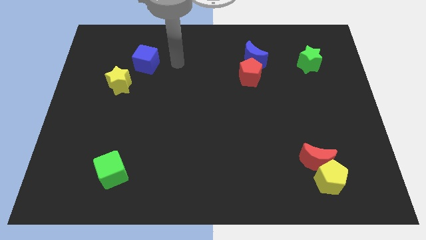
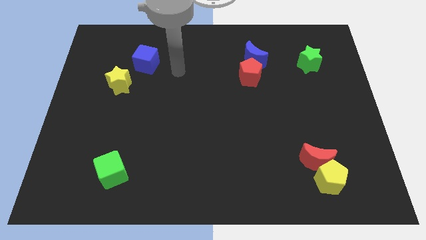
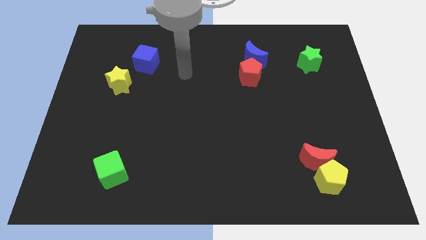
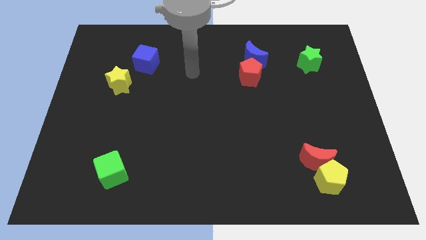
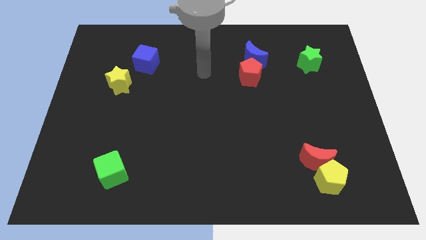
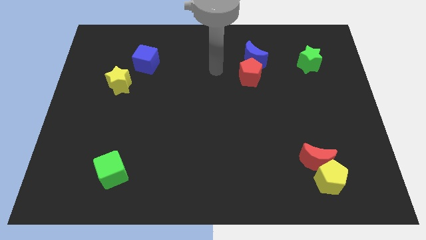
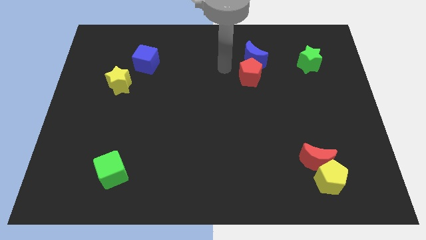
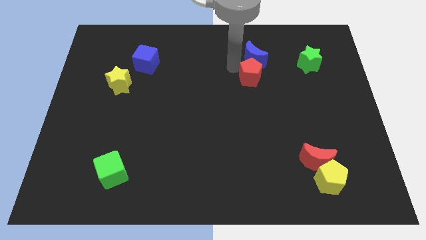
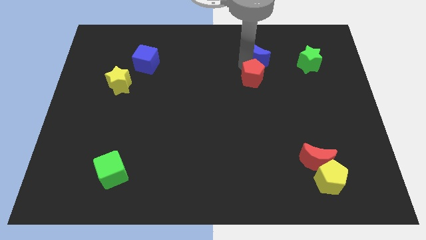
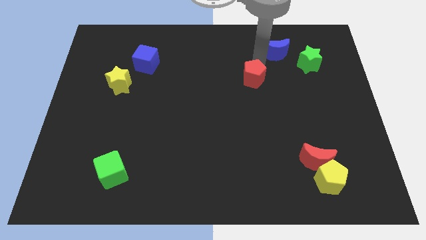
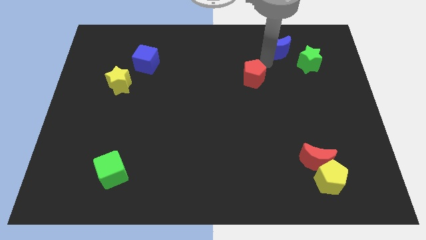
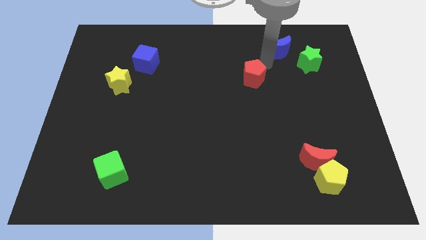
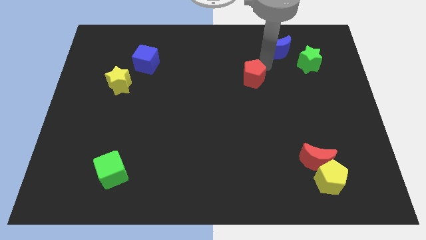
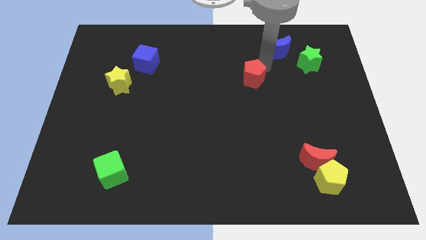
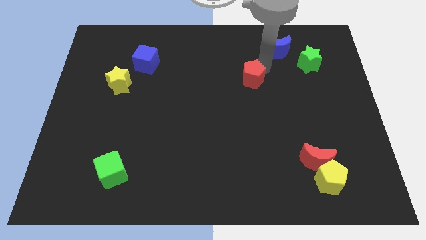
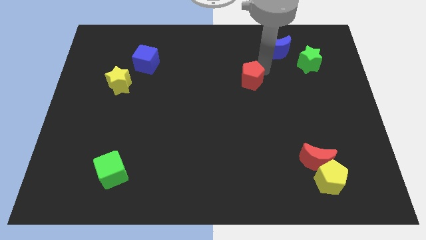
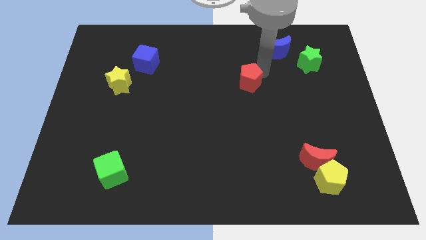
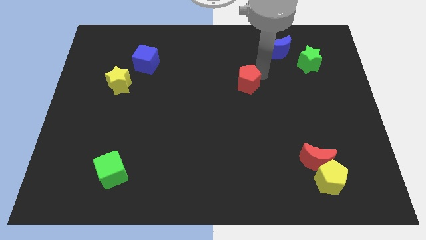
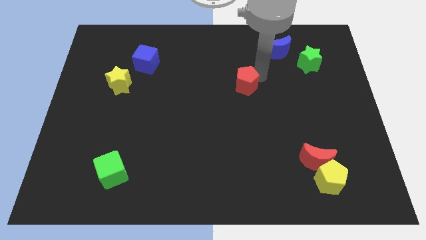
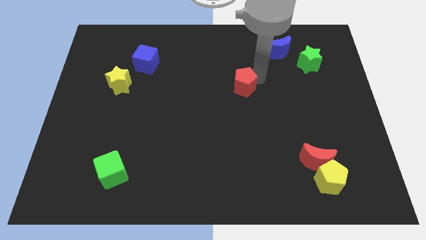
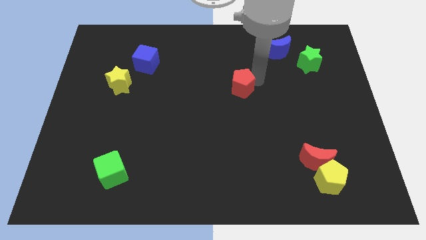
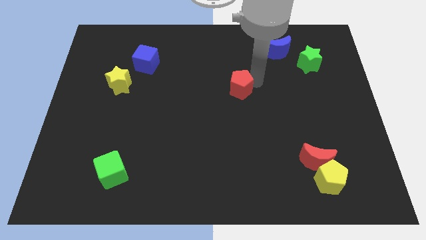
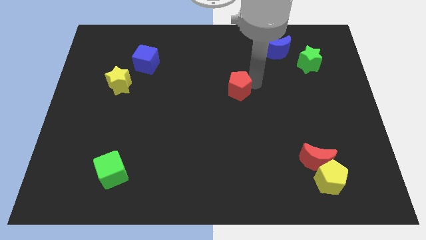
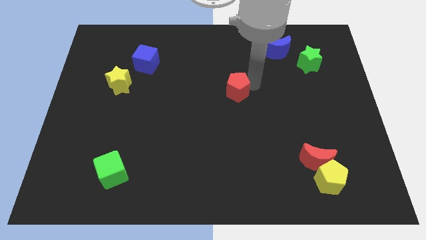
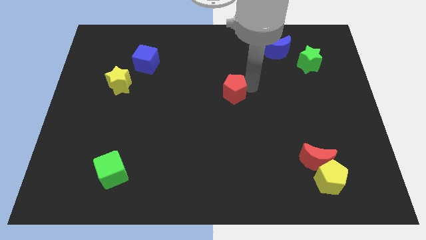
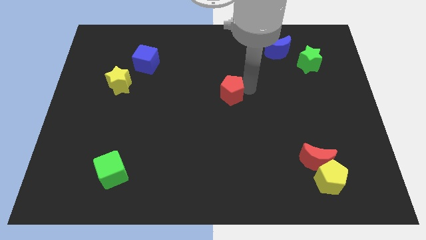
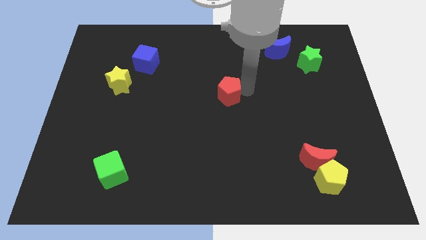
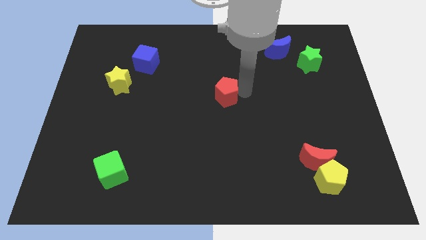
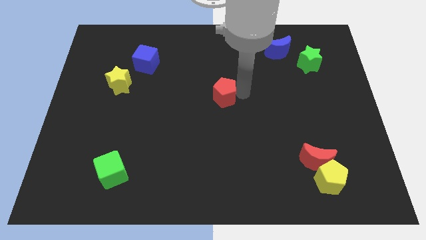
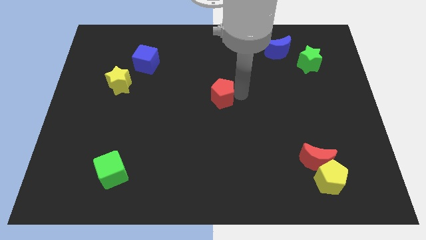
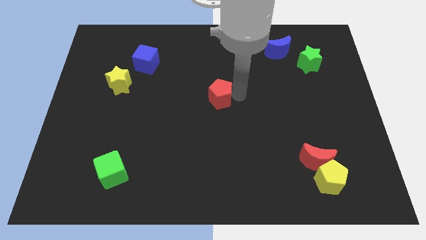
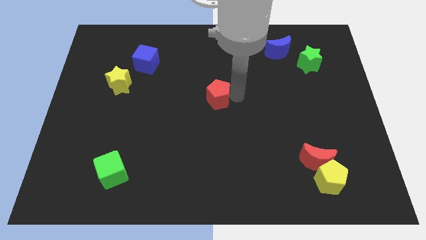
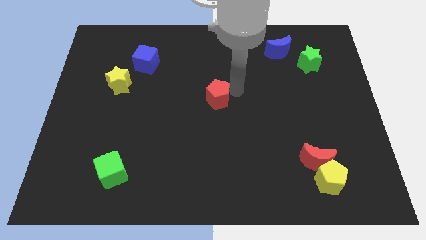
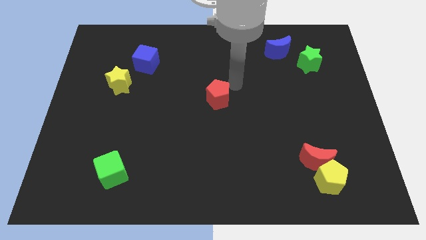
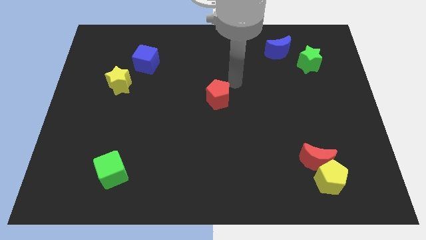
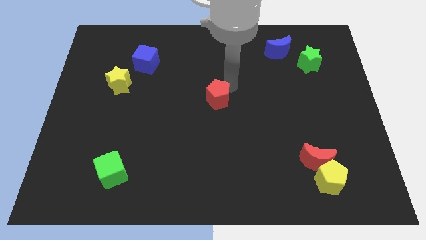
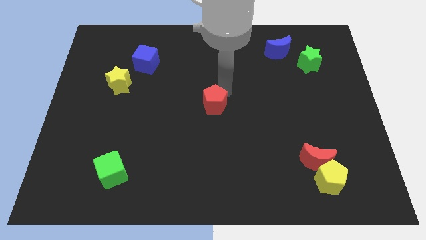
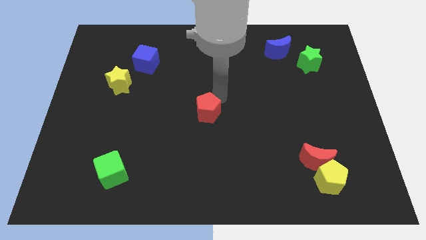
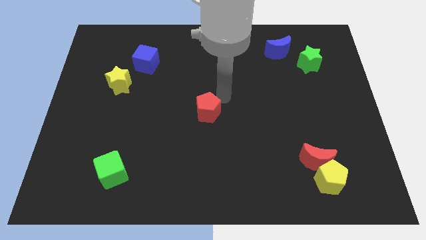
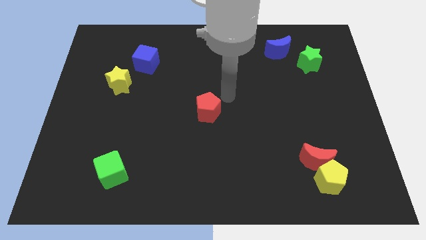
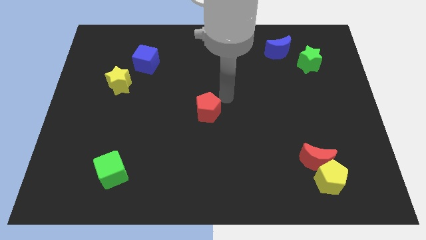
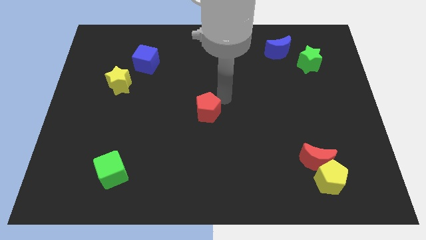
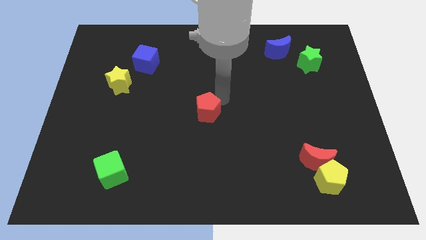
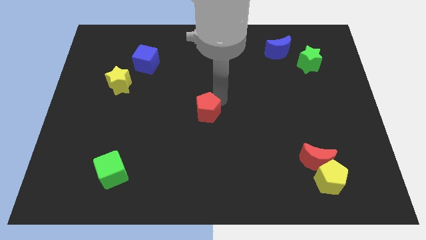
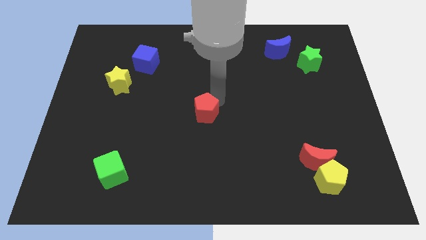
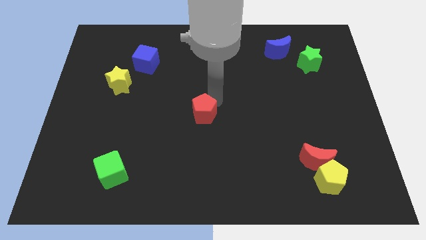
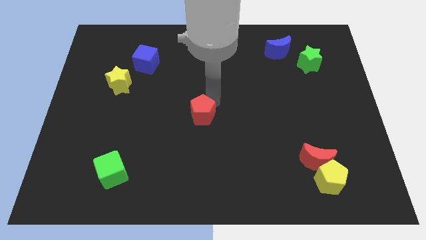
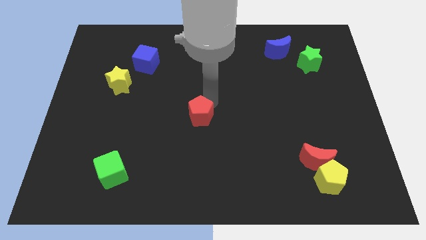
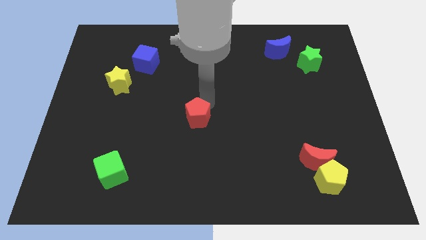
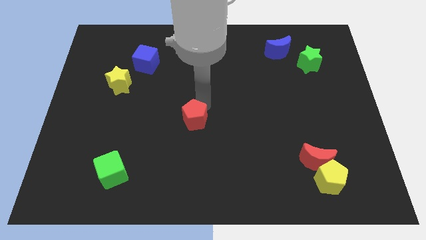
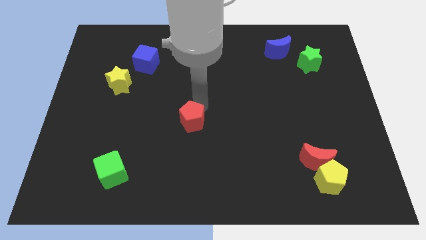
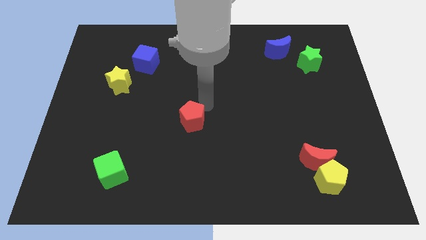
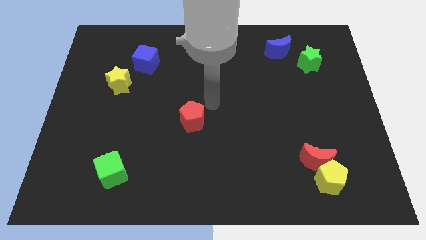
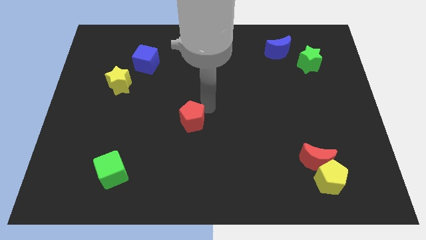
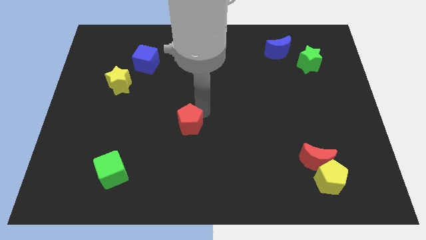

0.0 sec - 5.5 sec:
slide the red pentagon down and then left

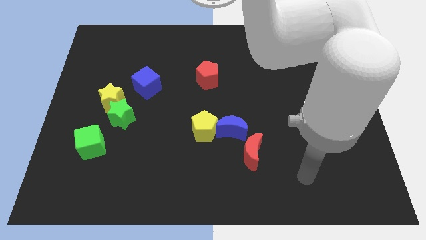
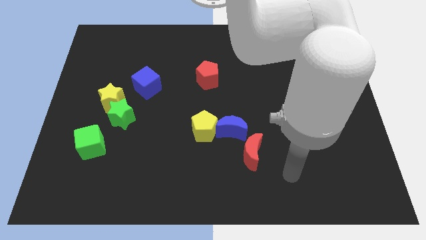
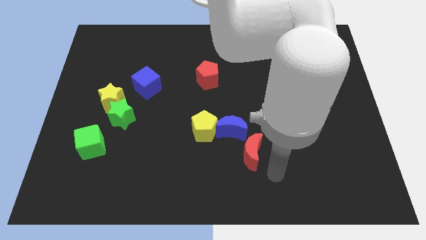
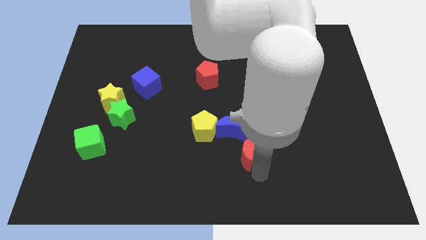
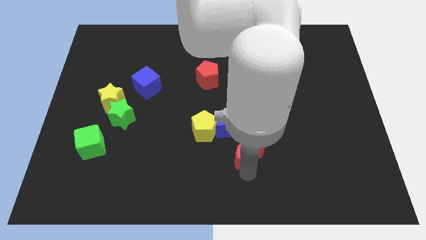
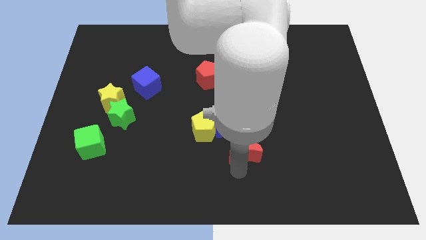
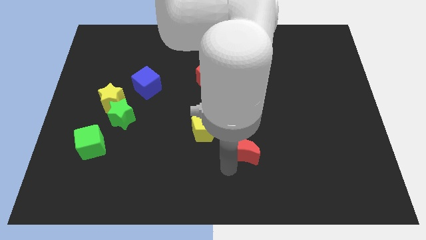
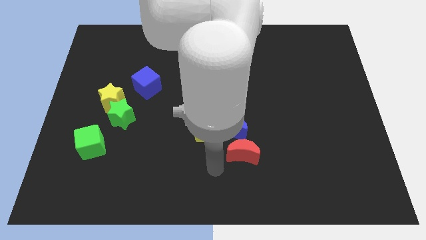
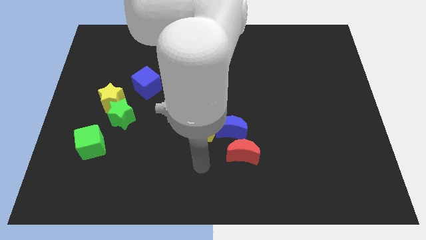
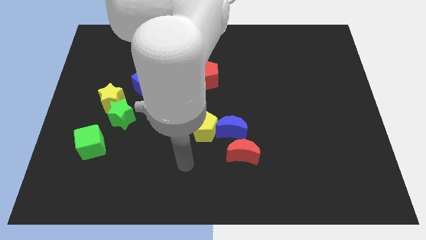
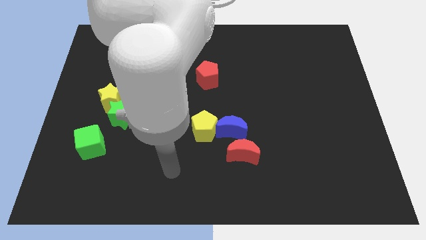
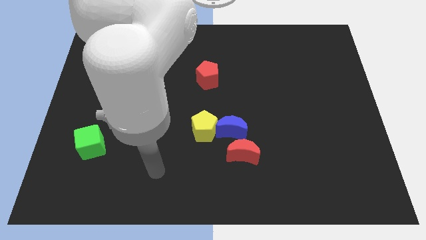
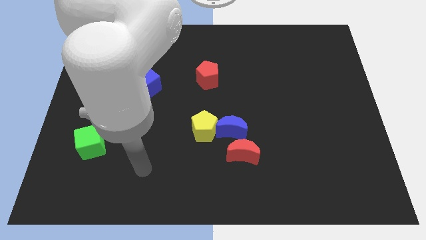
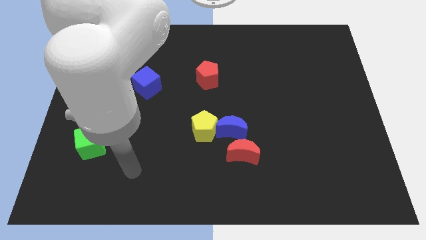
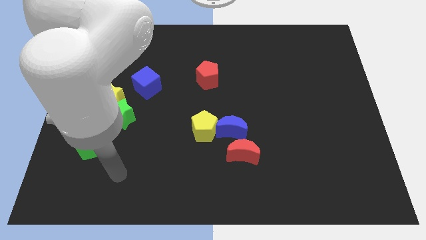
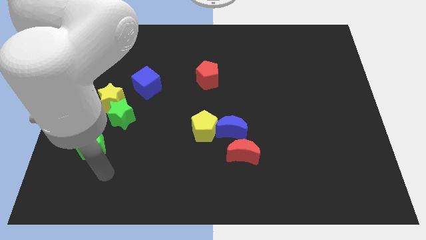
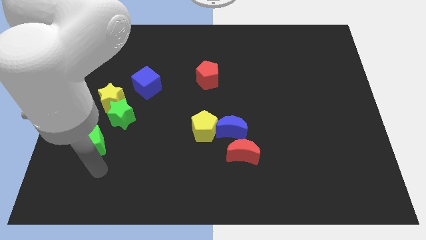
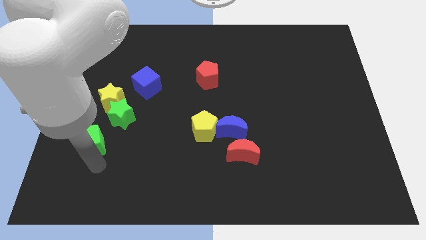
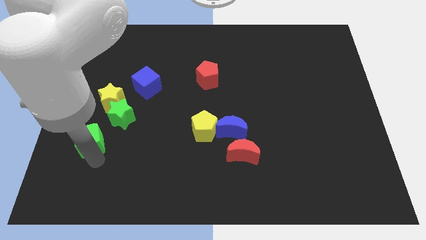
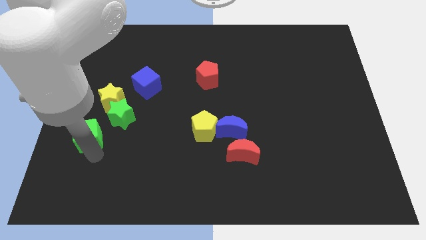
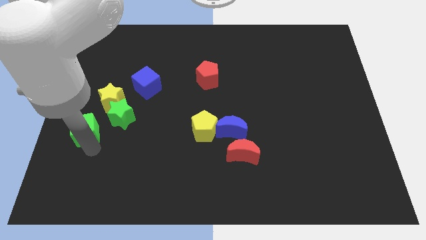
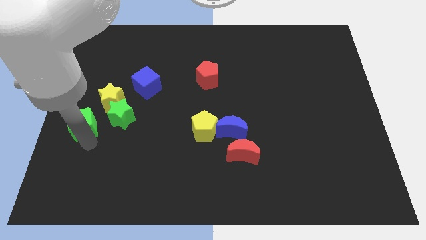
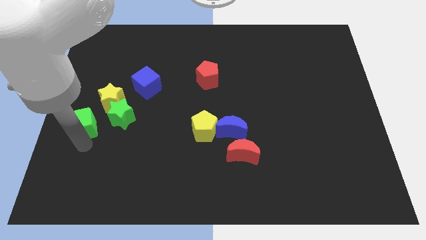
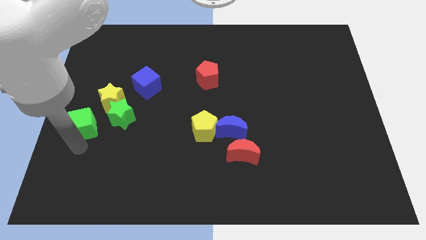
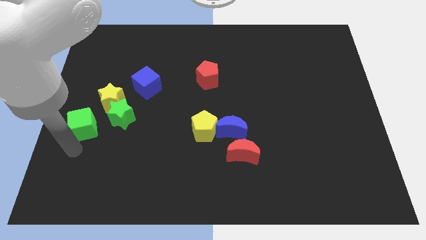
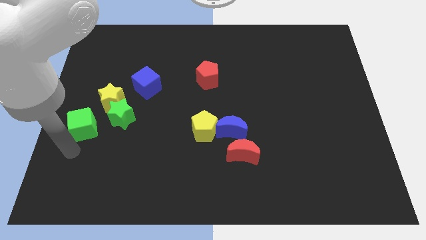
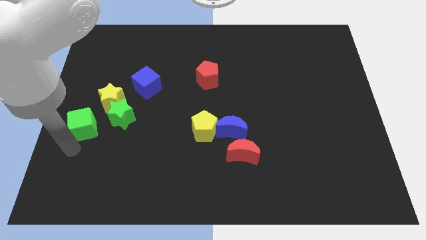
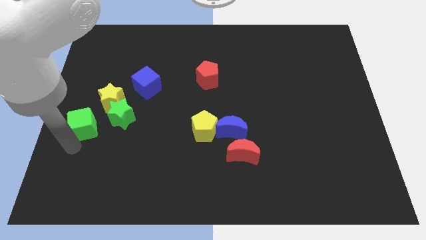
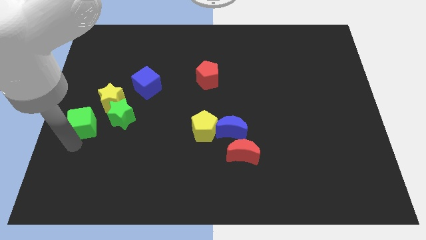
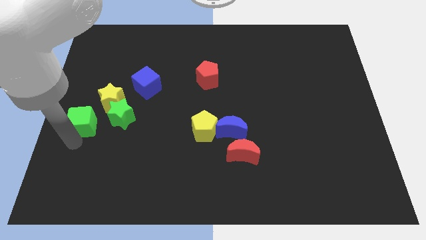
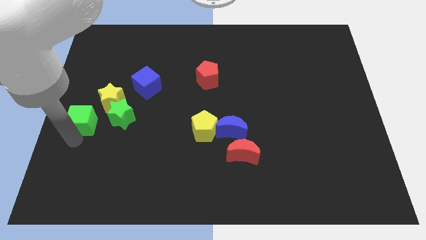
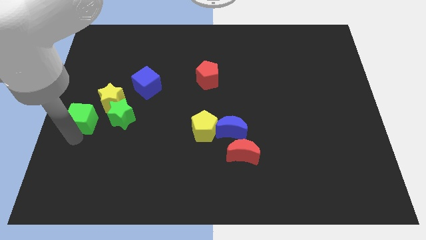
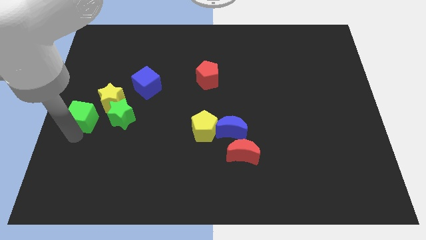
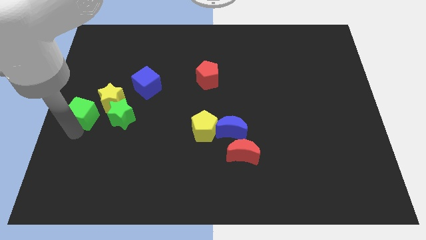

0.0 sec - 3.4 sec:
slide the green cube upwards a little
